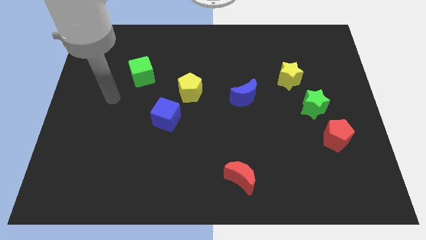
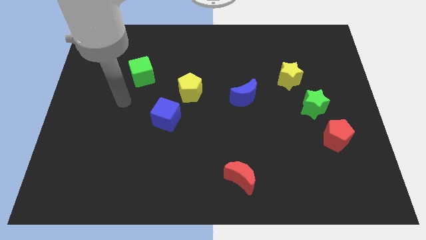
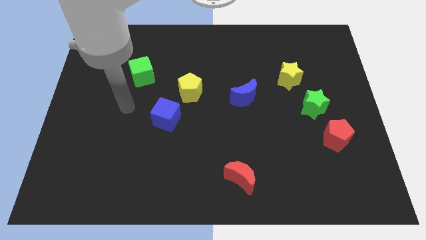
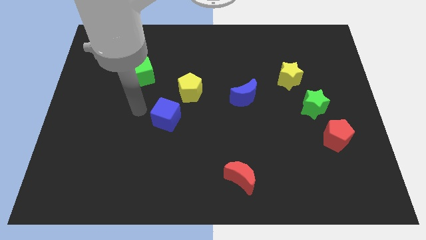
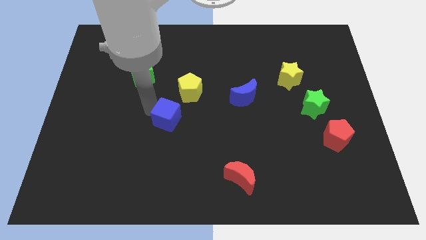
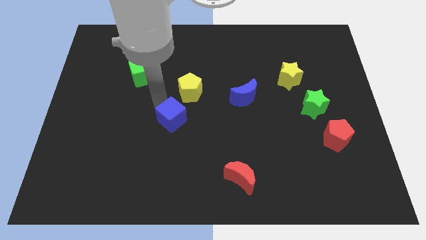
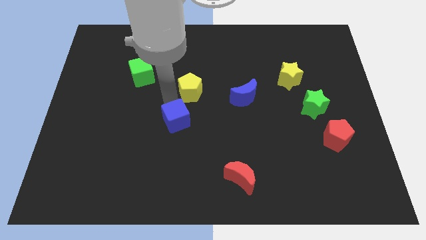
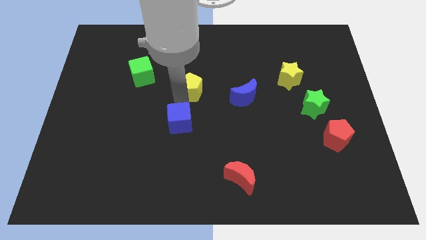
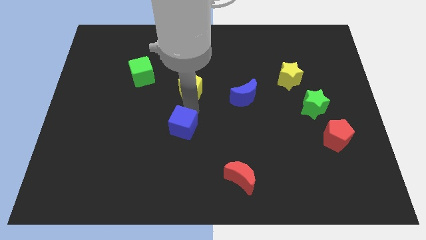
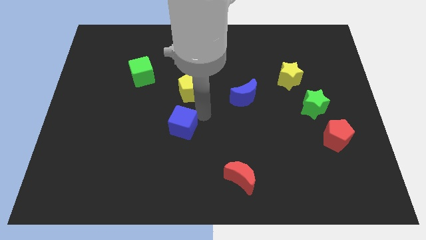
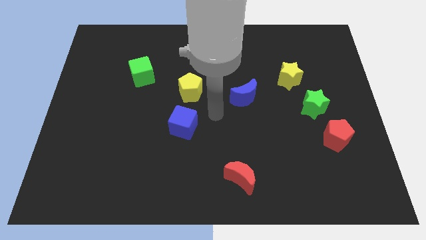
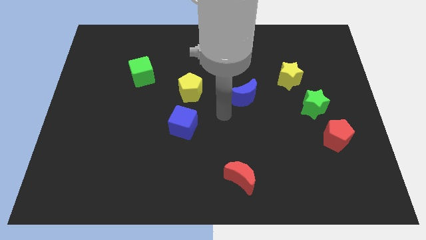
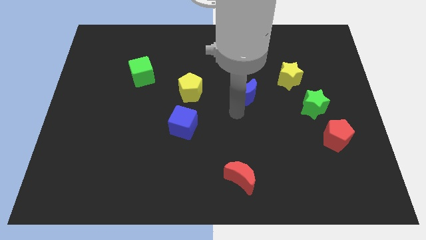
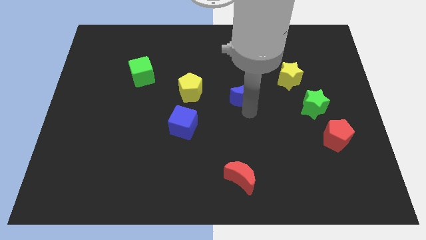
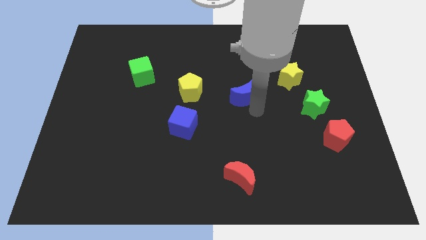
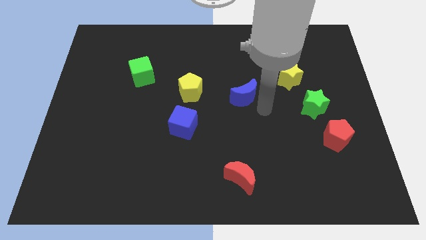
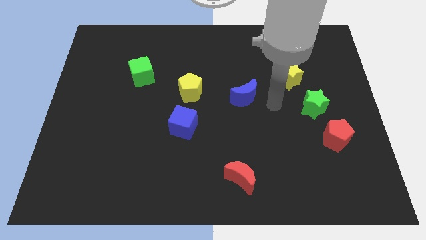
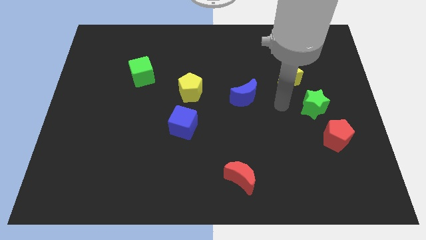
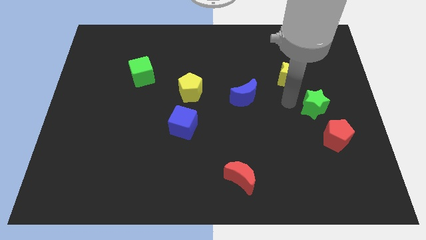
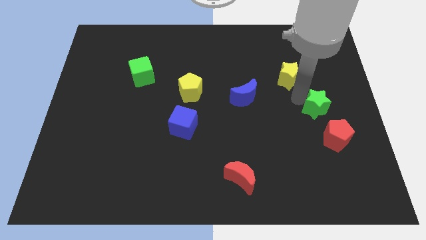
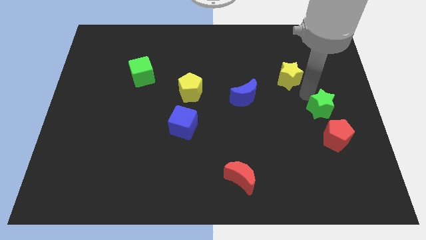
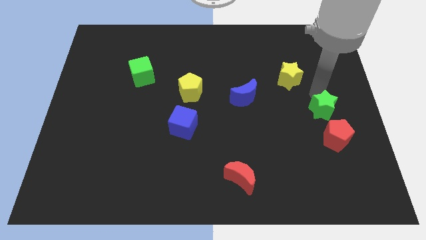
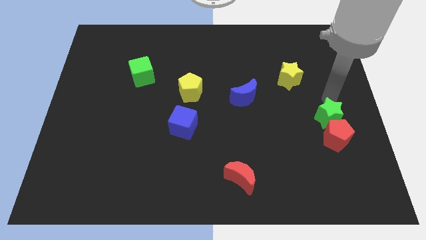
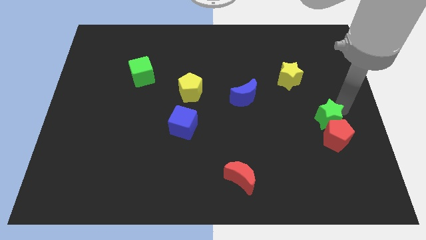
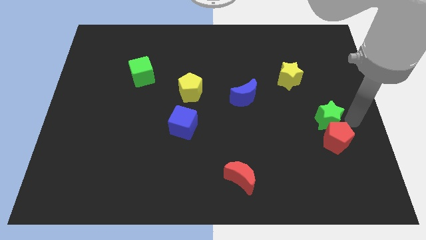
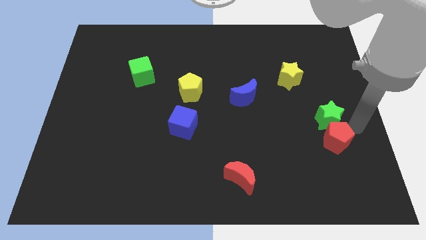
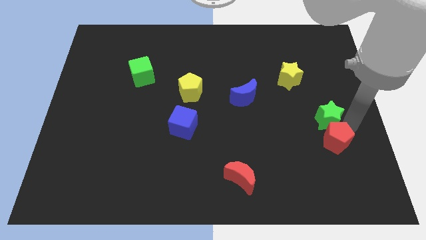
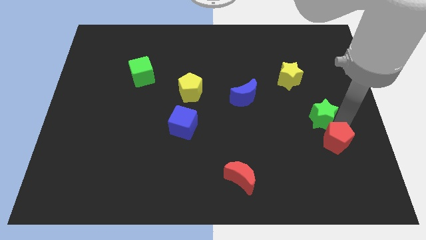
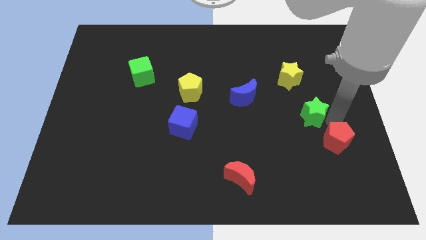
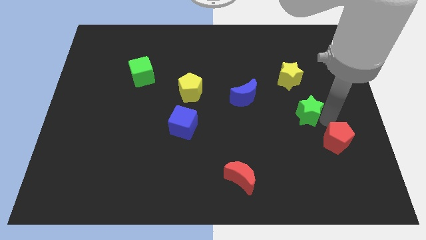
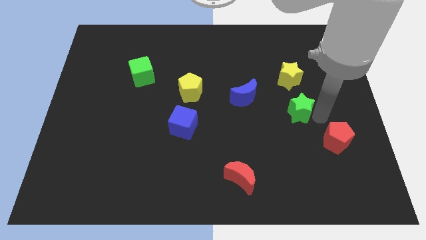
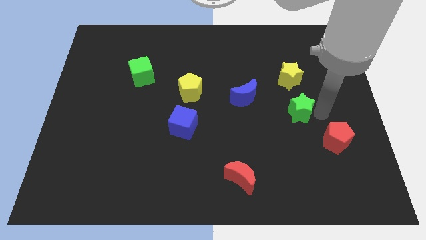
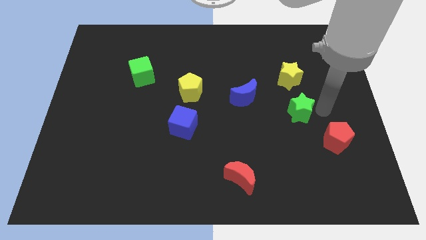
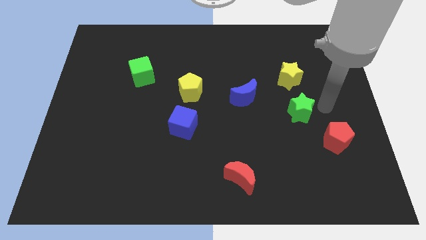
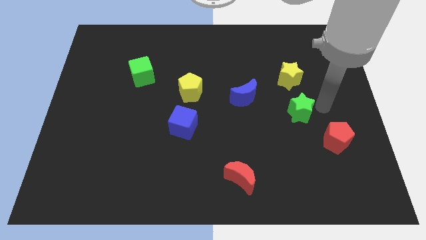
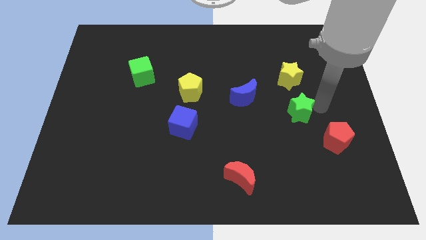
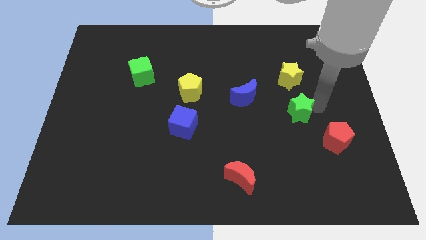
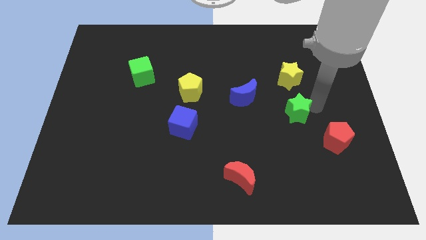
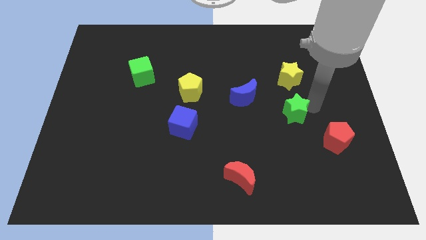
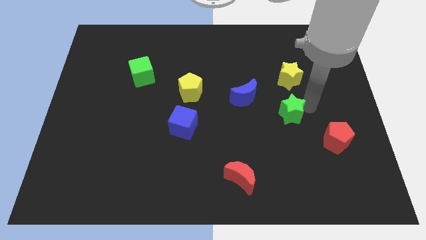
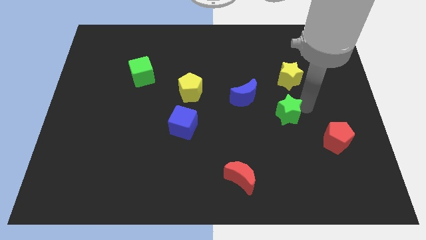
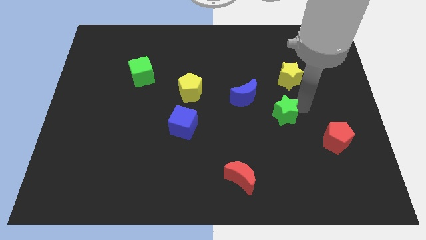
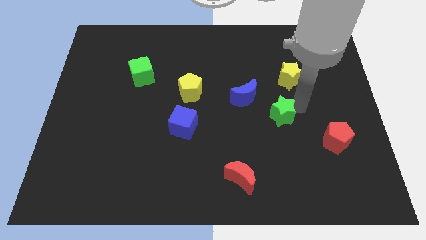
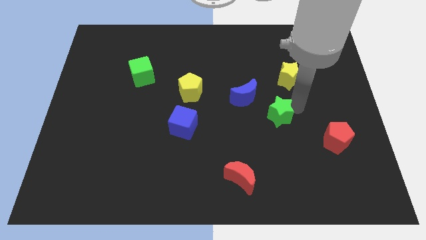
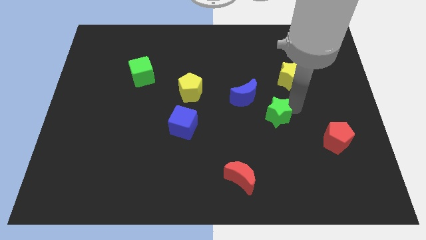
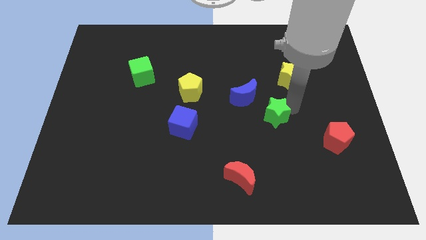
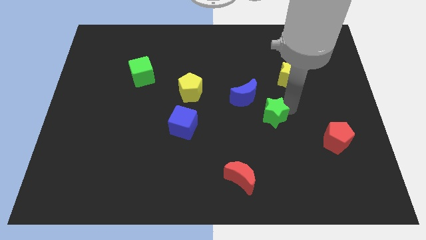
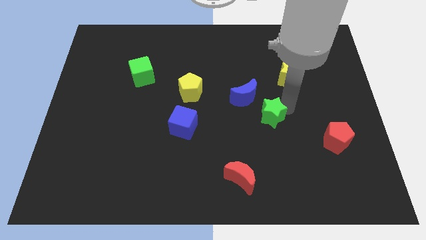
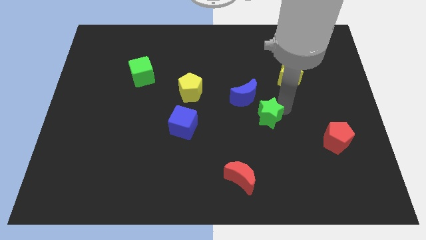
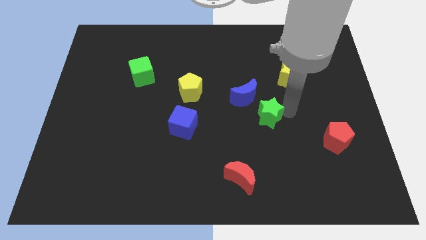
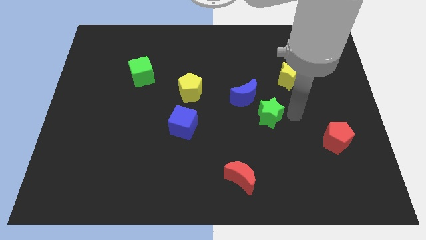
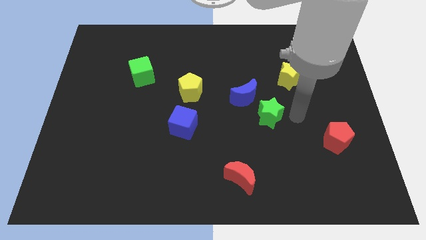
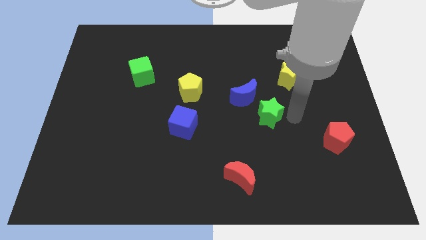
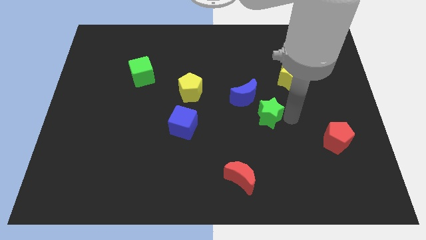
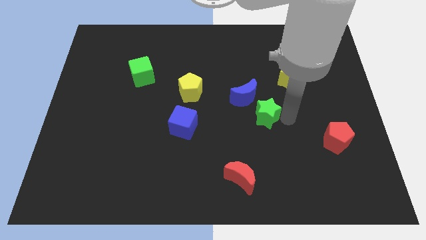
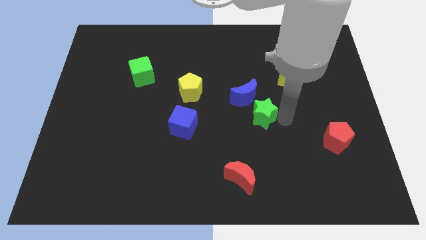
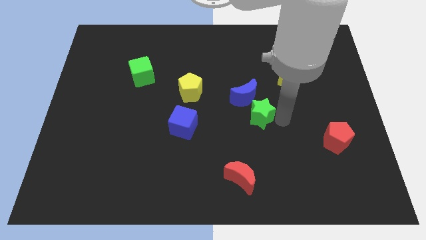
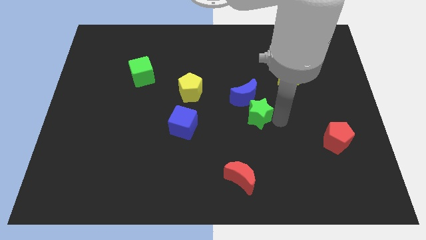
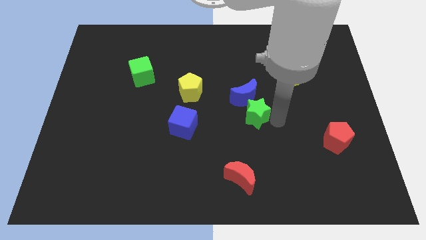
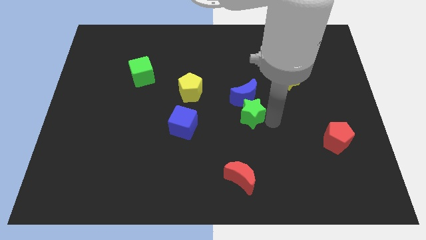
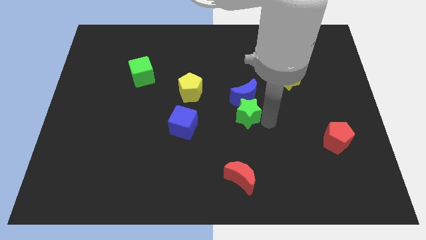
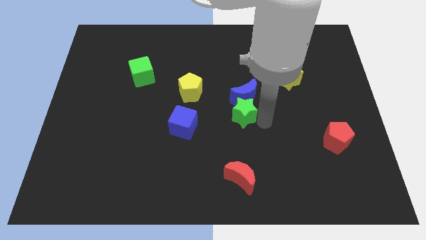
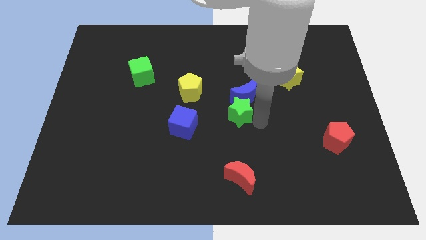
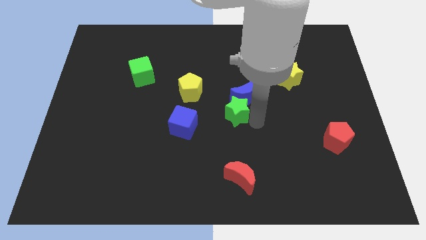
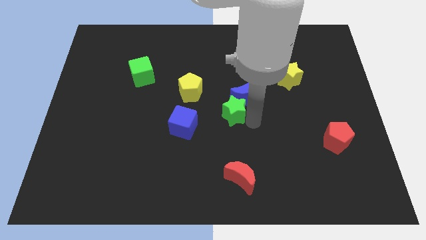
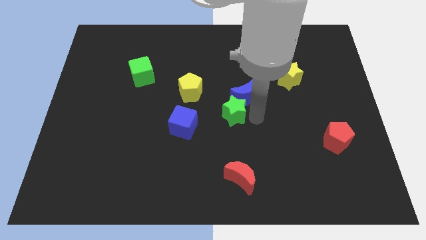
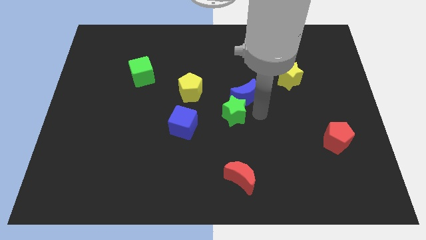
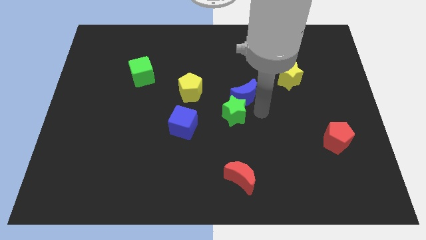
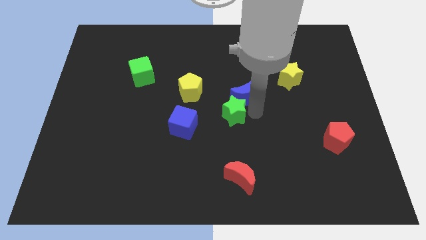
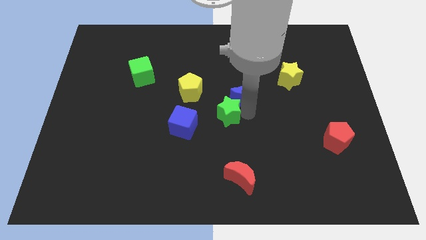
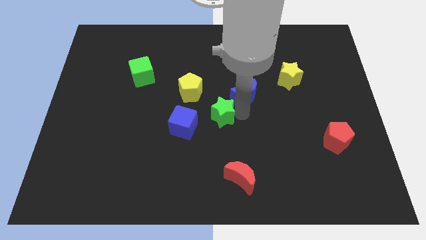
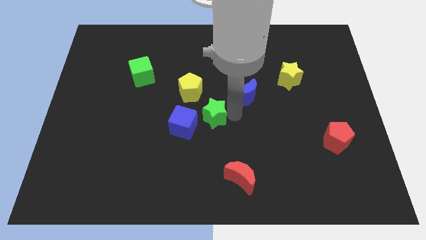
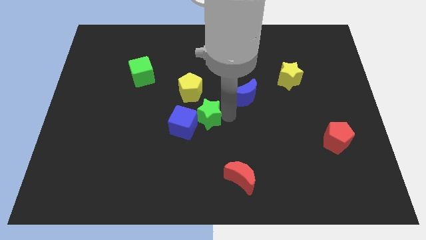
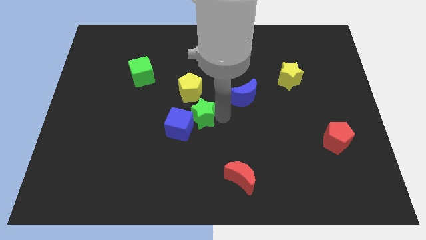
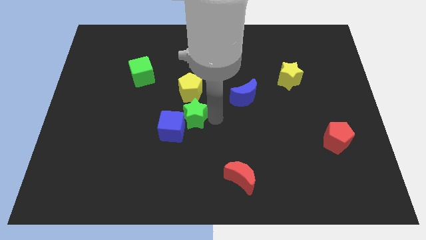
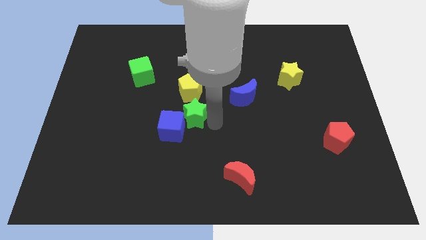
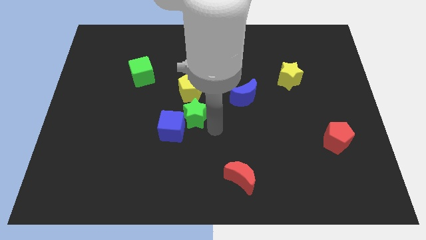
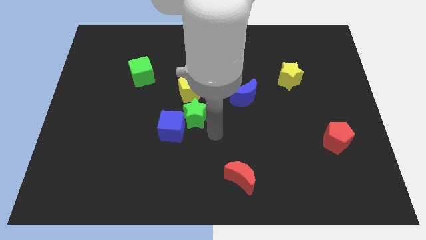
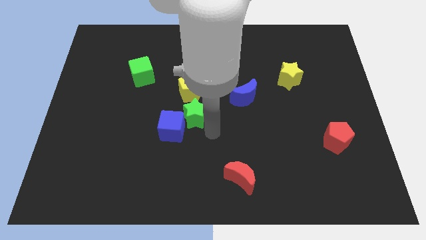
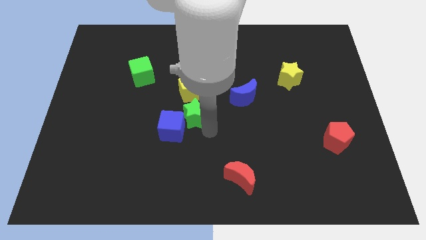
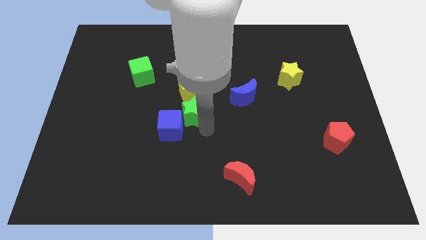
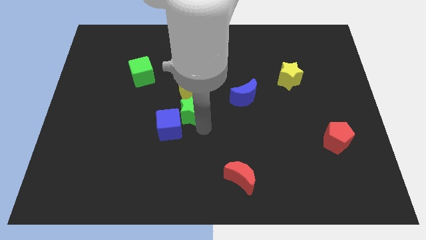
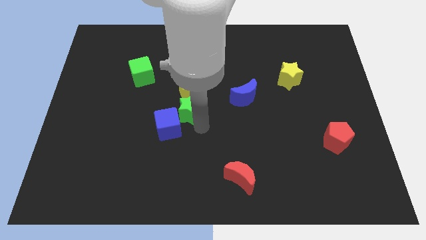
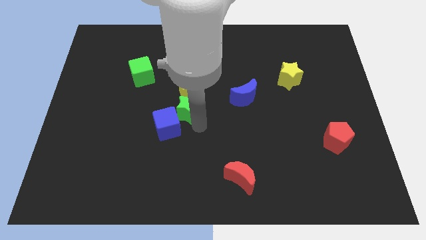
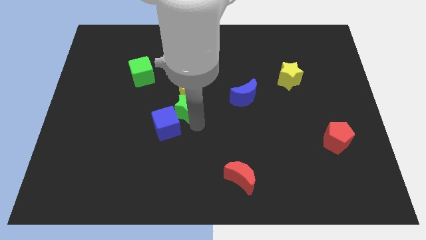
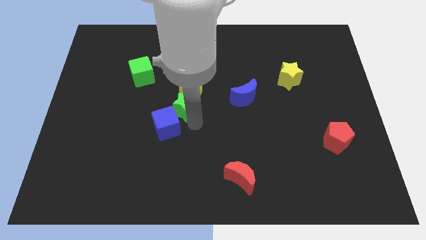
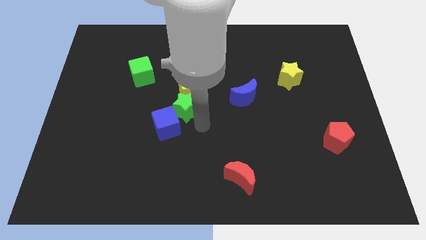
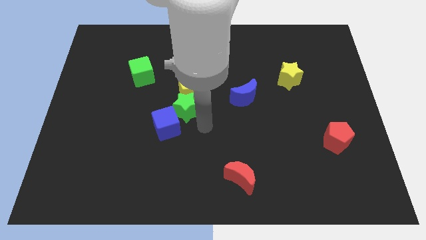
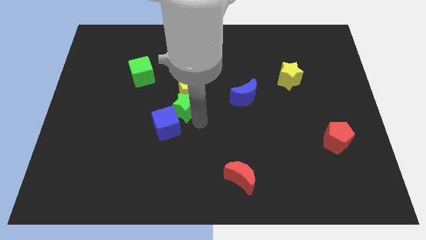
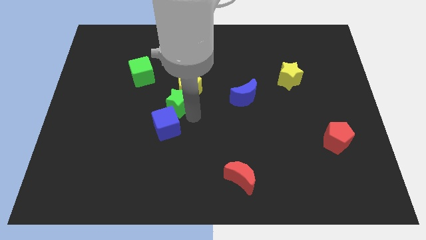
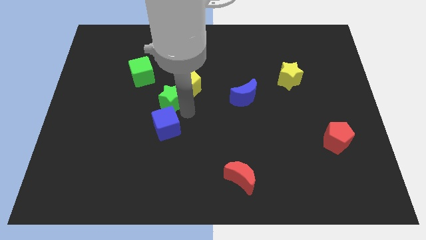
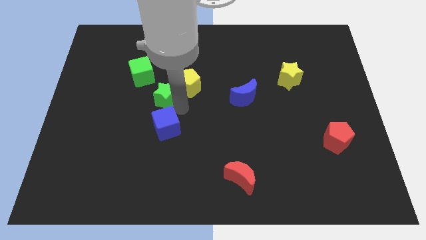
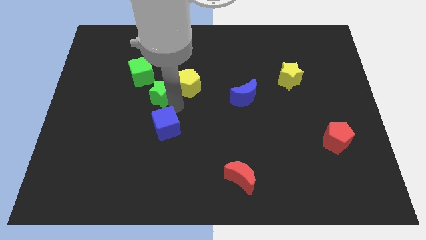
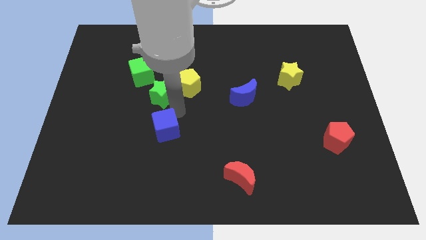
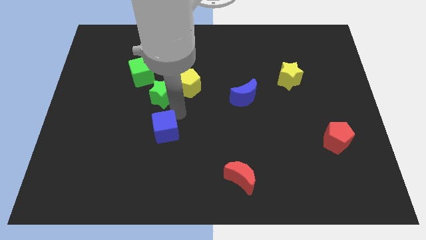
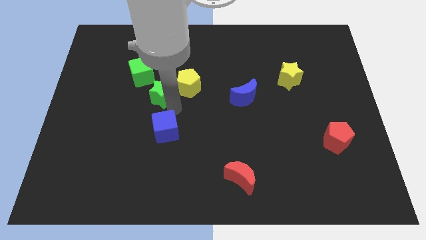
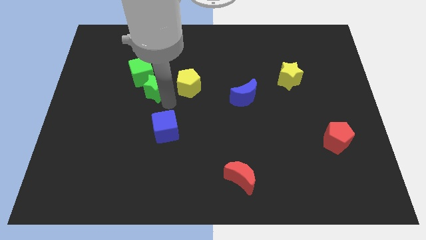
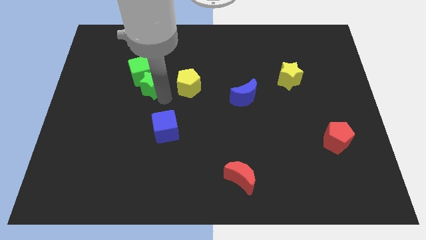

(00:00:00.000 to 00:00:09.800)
push the green star close to the green cube
